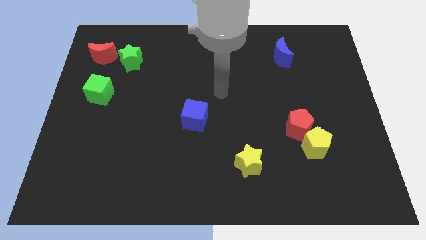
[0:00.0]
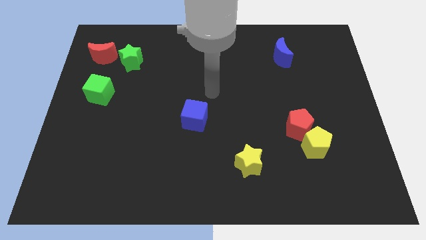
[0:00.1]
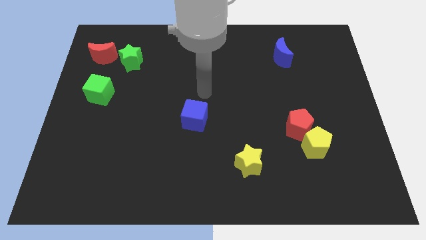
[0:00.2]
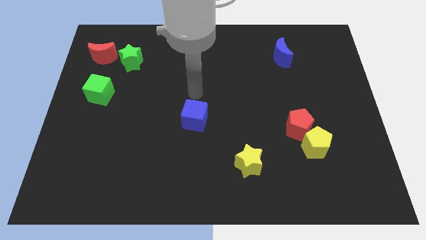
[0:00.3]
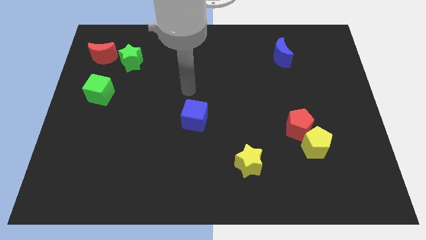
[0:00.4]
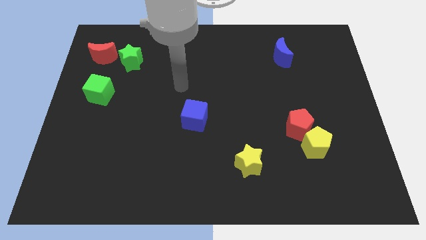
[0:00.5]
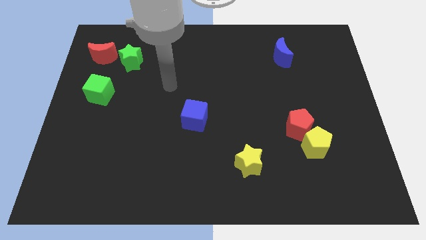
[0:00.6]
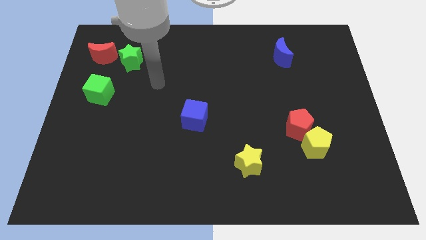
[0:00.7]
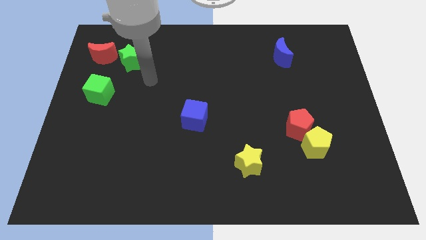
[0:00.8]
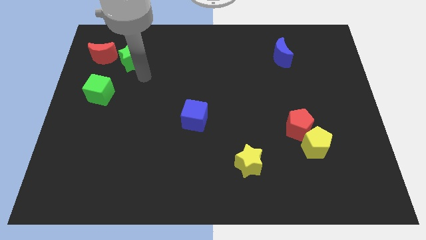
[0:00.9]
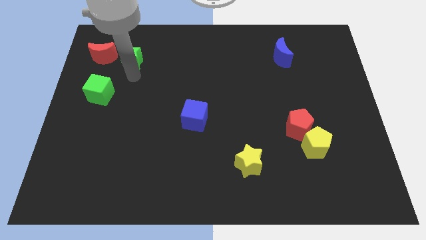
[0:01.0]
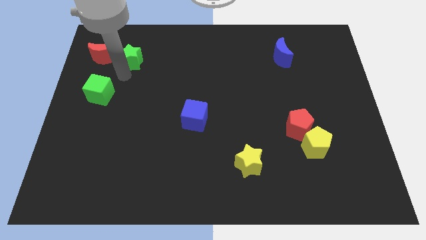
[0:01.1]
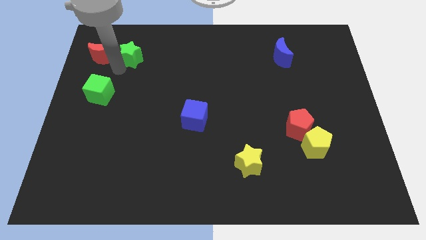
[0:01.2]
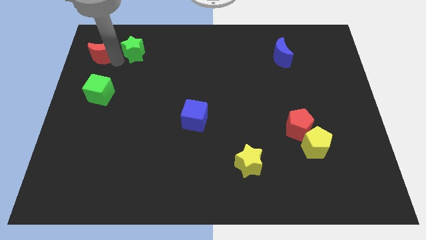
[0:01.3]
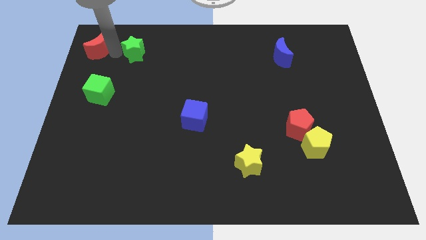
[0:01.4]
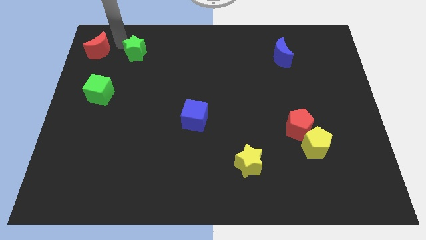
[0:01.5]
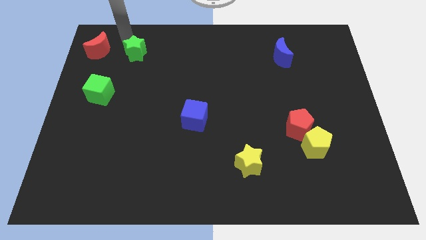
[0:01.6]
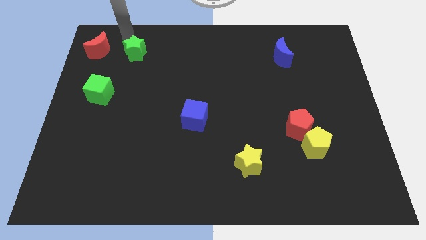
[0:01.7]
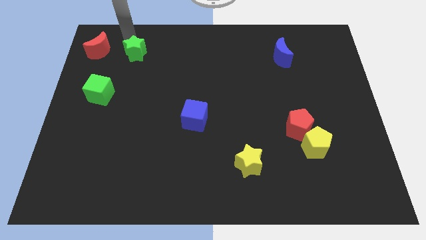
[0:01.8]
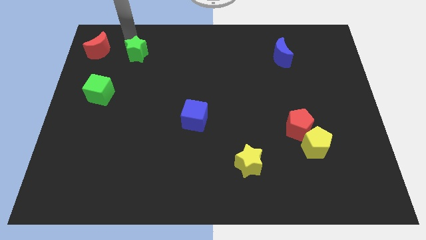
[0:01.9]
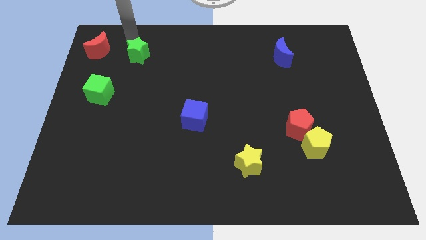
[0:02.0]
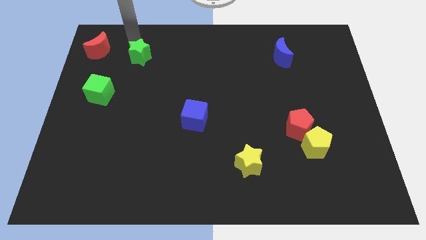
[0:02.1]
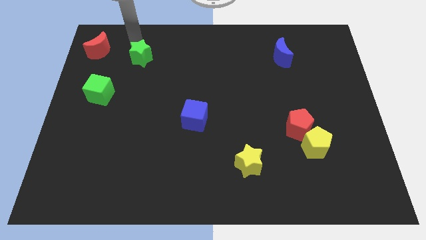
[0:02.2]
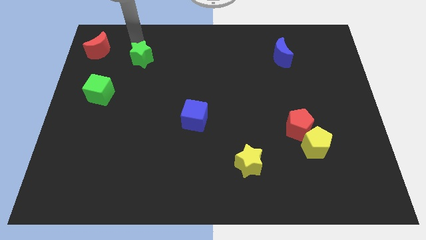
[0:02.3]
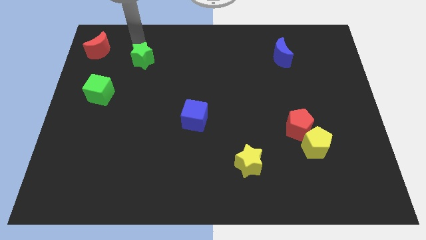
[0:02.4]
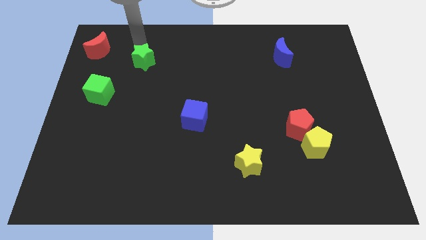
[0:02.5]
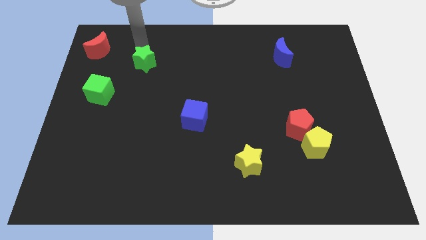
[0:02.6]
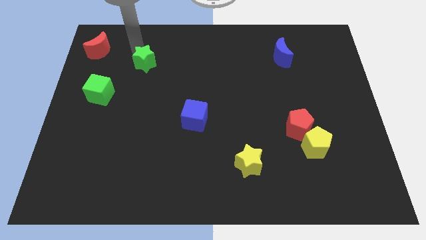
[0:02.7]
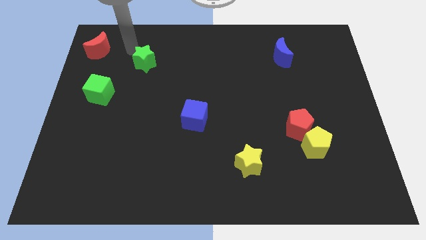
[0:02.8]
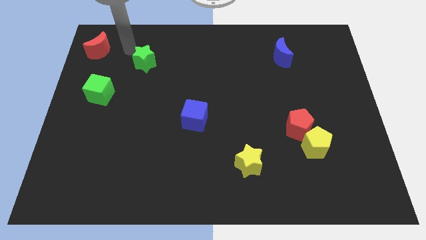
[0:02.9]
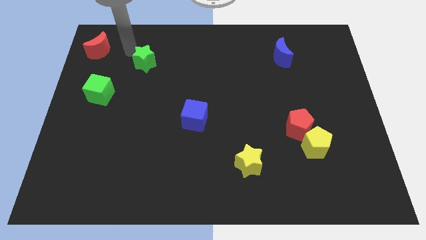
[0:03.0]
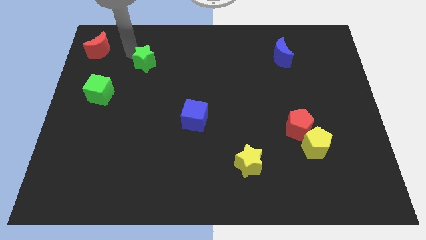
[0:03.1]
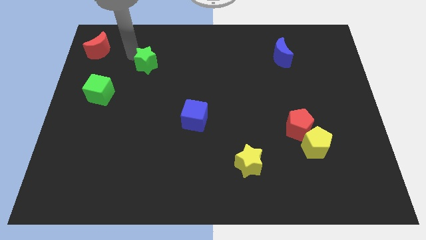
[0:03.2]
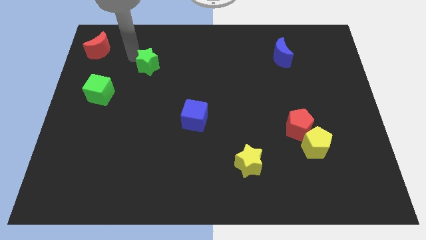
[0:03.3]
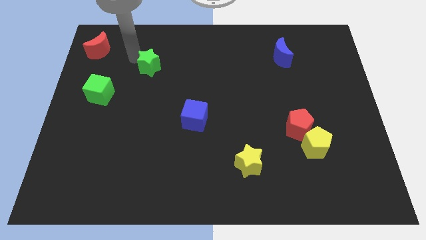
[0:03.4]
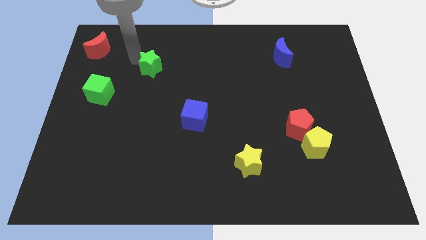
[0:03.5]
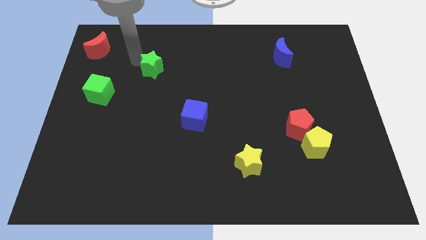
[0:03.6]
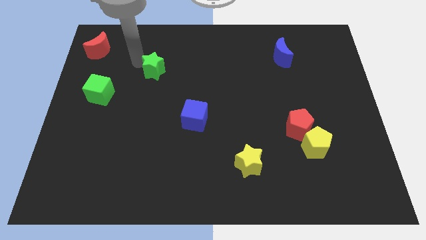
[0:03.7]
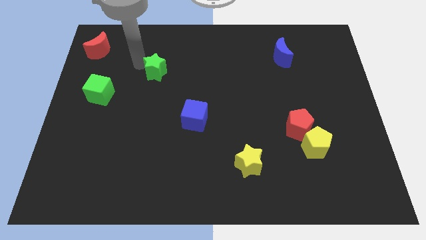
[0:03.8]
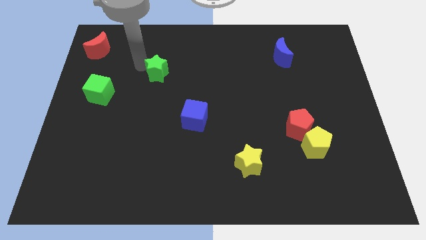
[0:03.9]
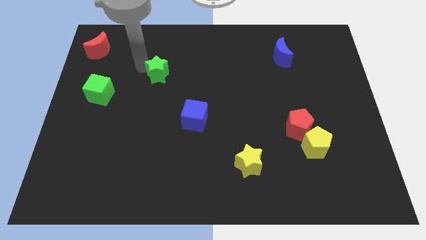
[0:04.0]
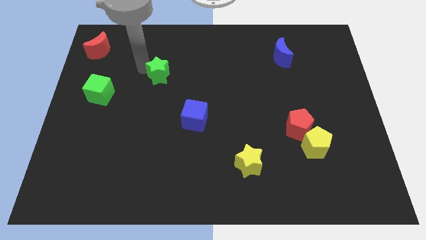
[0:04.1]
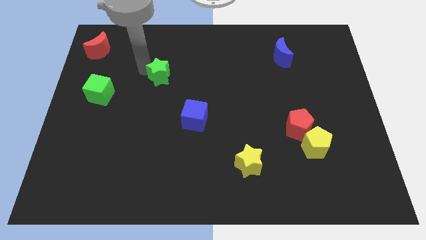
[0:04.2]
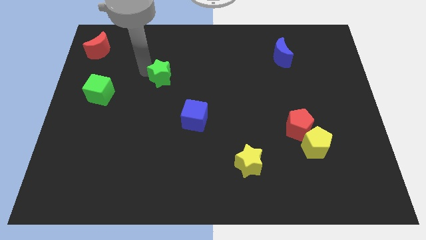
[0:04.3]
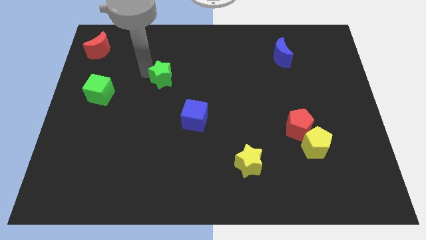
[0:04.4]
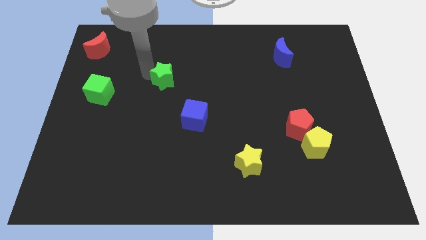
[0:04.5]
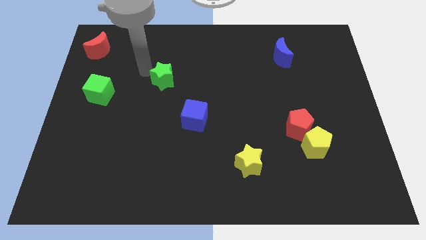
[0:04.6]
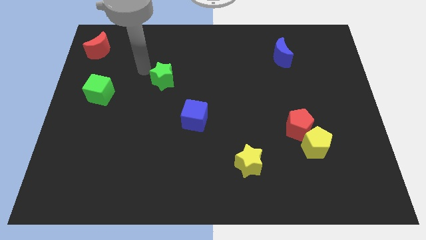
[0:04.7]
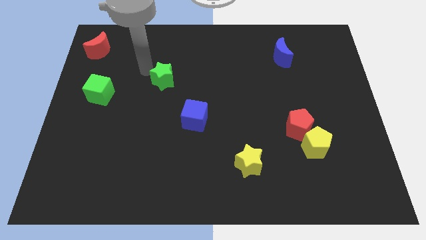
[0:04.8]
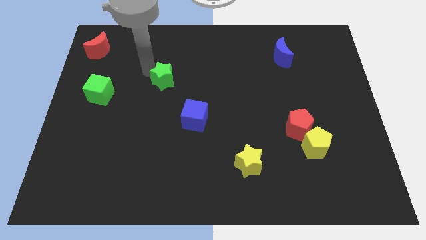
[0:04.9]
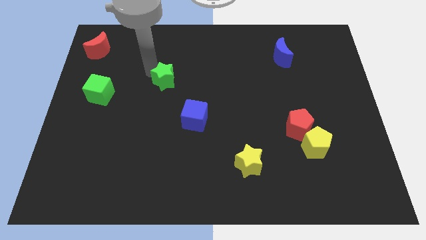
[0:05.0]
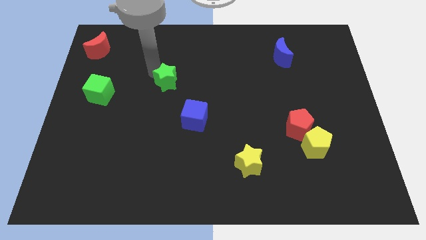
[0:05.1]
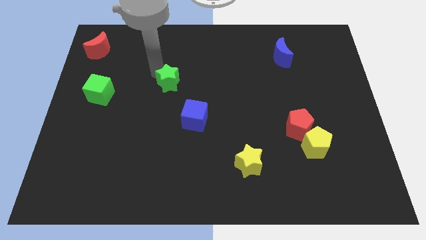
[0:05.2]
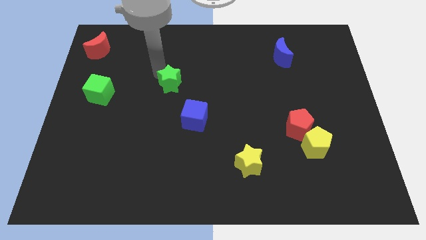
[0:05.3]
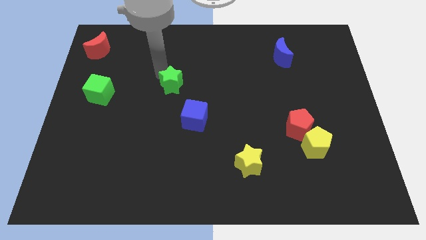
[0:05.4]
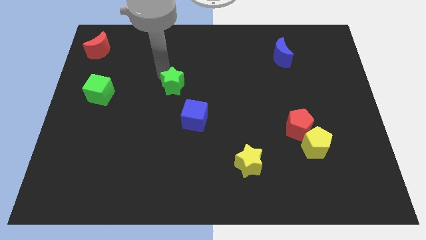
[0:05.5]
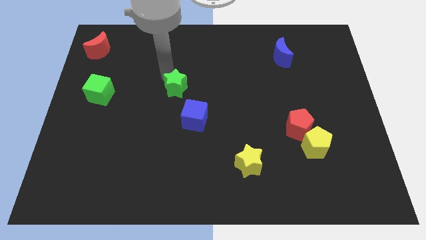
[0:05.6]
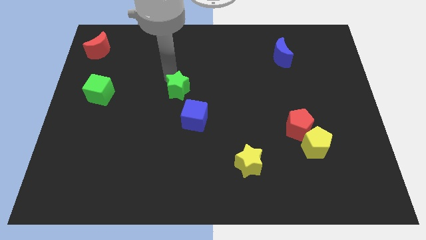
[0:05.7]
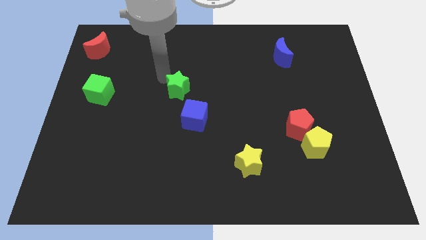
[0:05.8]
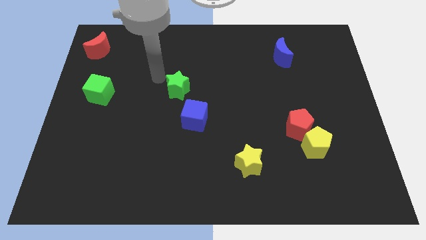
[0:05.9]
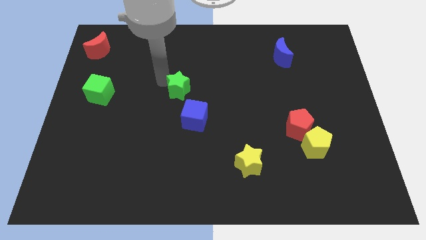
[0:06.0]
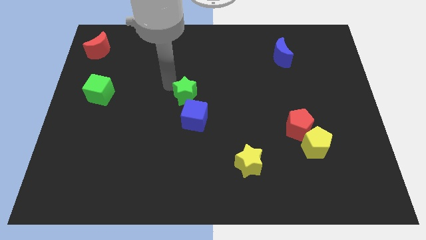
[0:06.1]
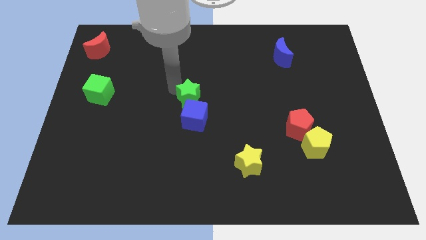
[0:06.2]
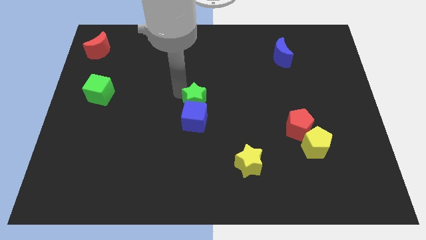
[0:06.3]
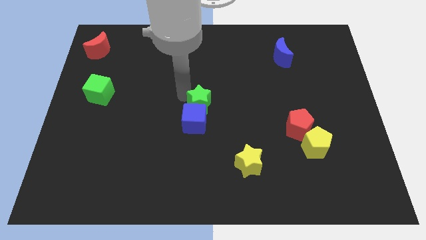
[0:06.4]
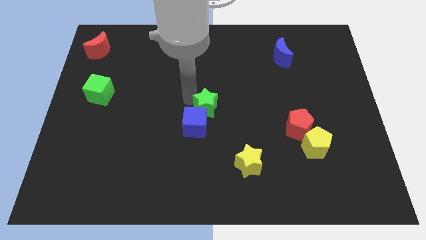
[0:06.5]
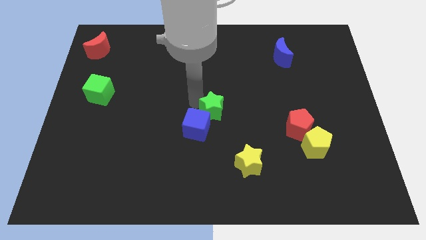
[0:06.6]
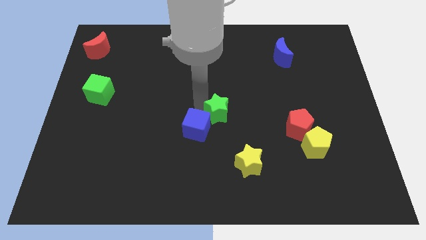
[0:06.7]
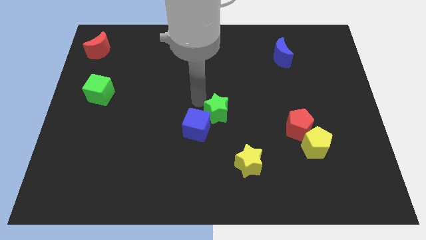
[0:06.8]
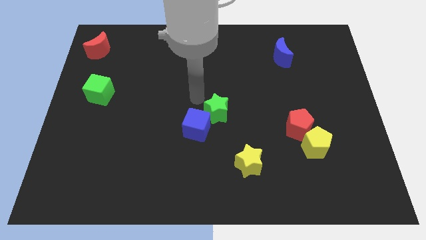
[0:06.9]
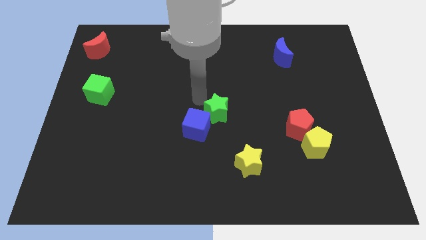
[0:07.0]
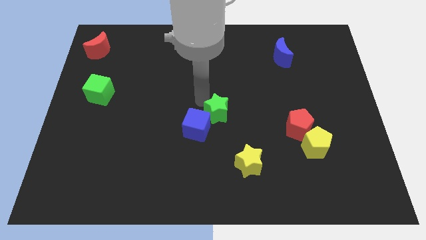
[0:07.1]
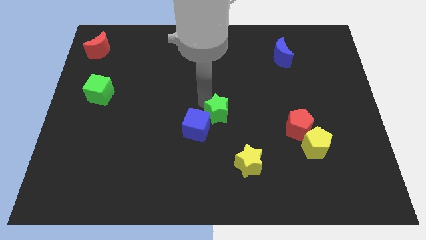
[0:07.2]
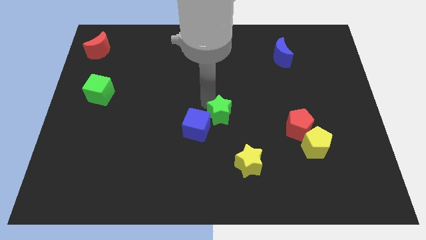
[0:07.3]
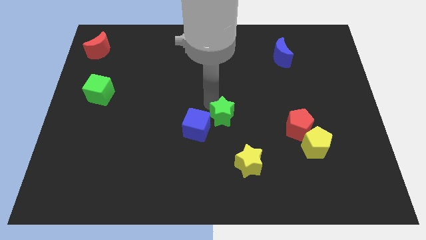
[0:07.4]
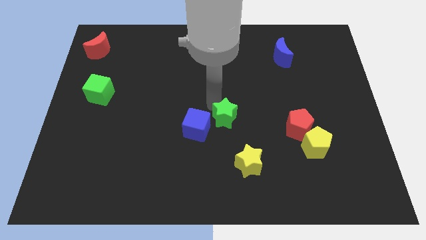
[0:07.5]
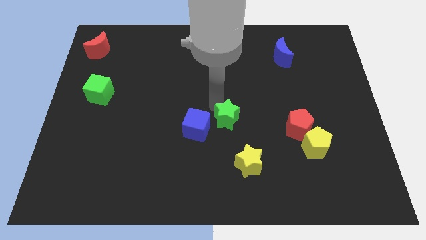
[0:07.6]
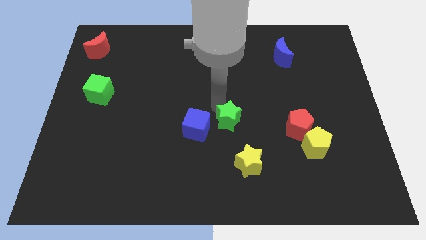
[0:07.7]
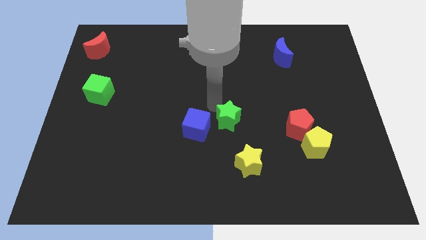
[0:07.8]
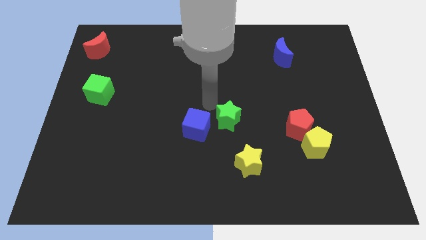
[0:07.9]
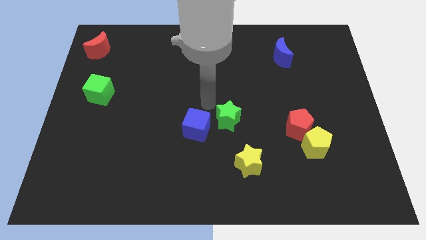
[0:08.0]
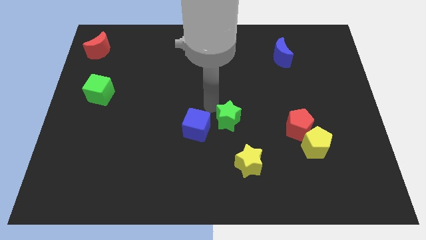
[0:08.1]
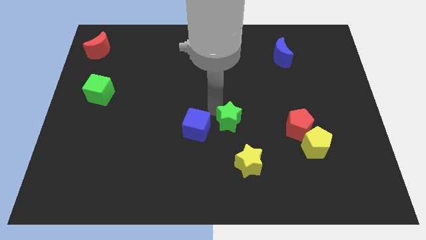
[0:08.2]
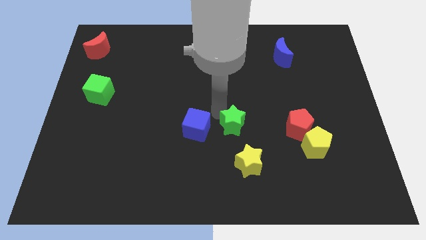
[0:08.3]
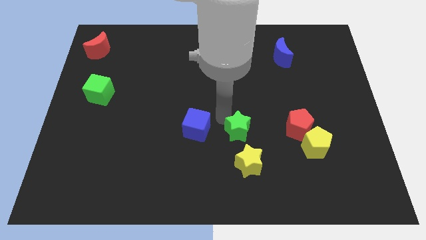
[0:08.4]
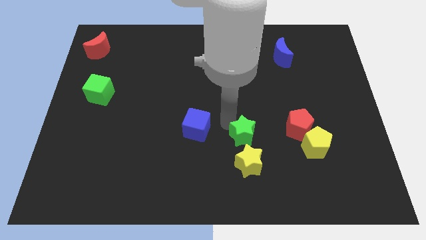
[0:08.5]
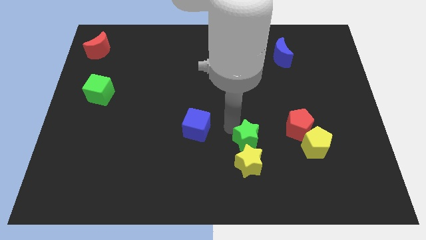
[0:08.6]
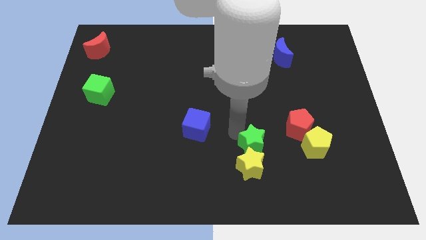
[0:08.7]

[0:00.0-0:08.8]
push the green star to the bottom left of the red pentagon
